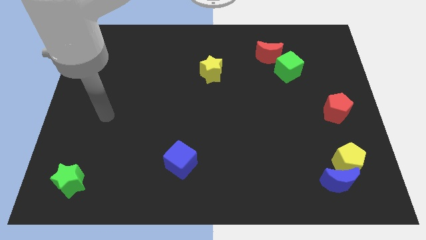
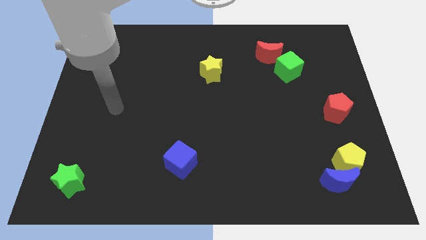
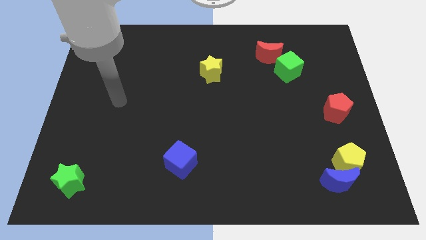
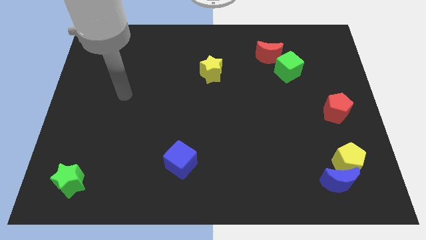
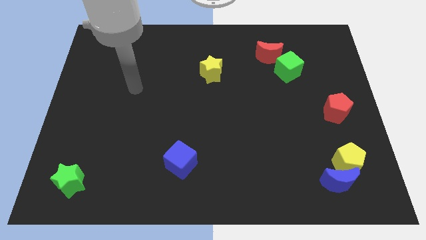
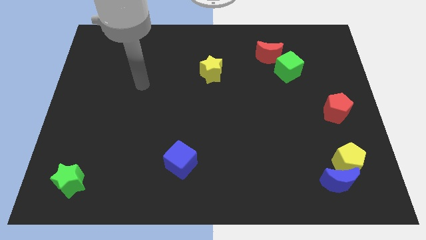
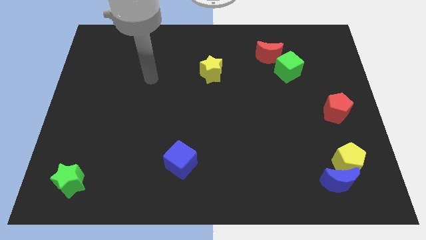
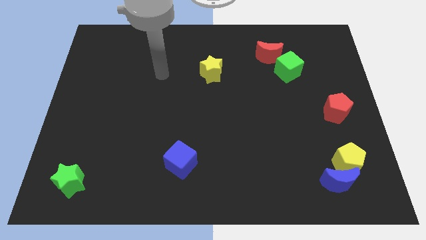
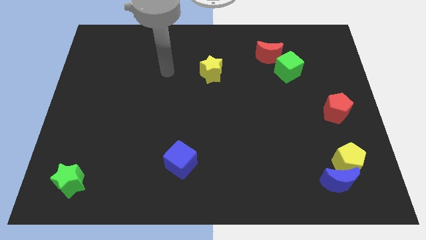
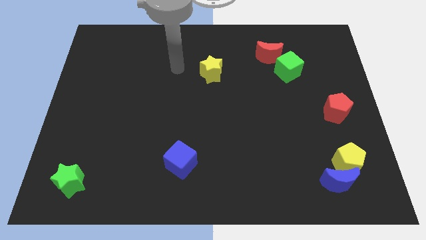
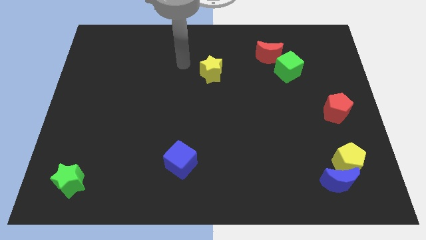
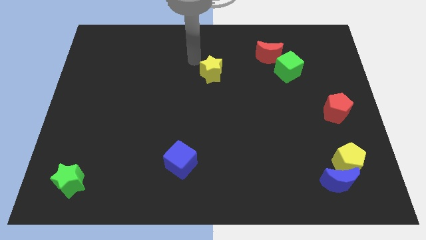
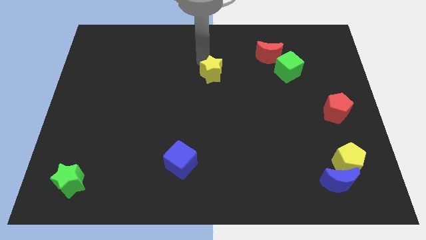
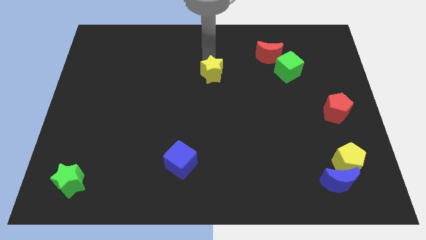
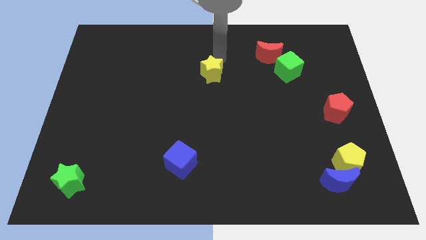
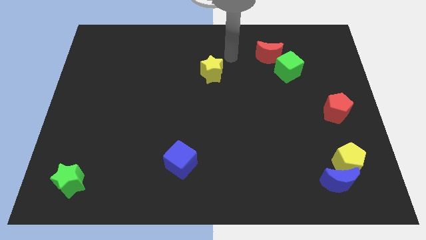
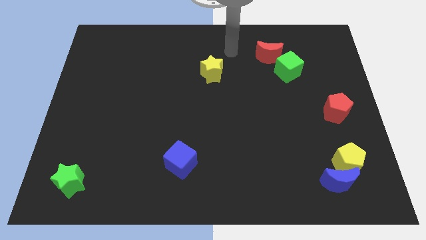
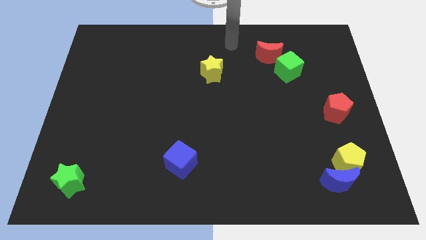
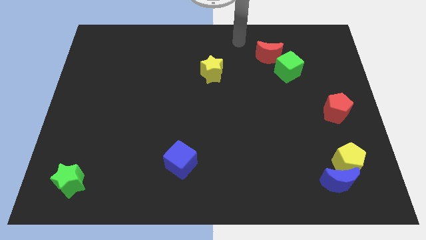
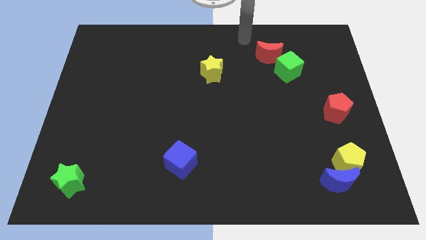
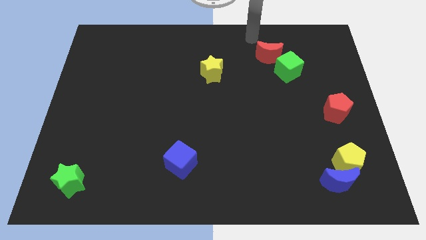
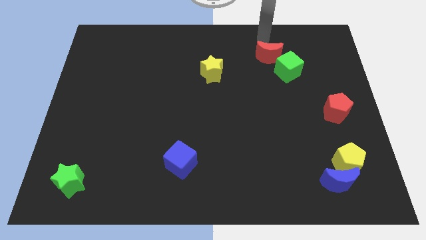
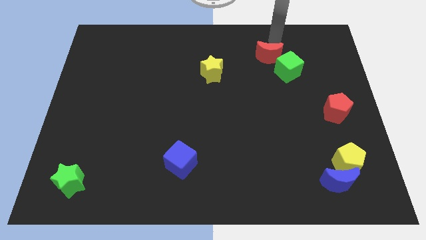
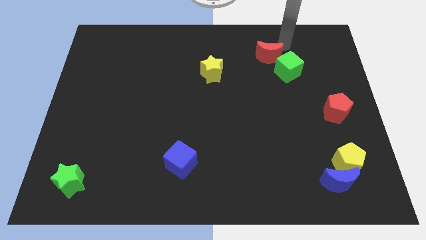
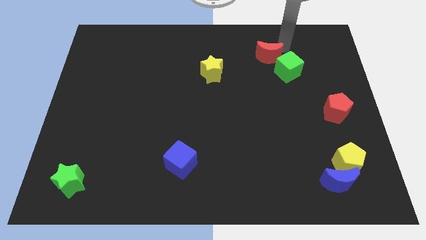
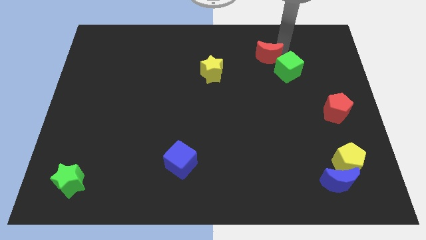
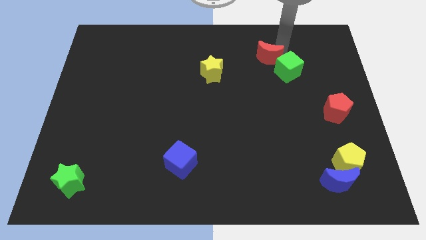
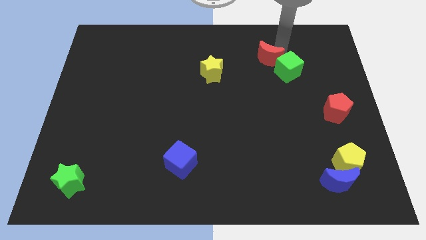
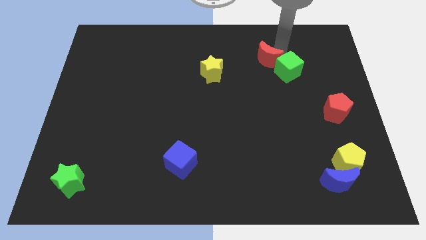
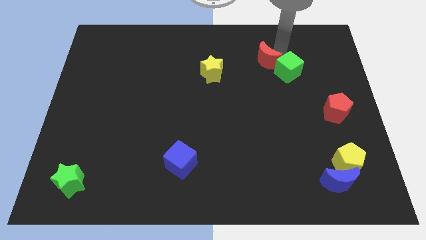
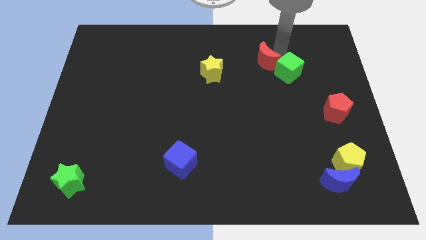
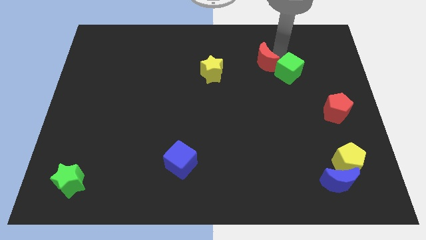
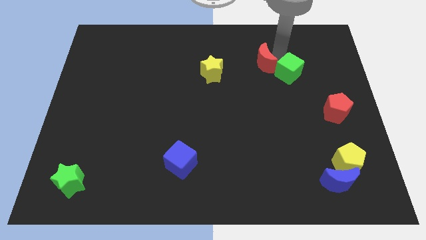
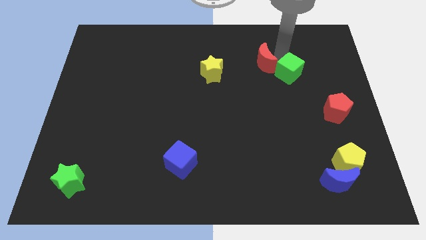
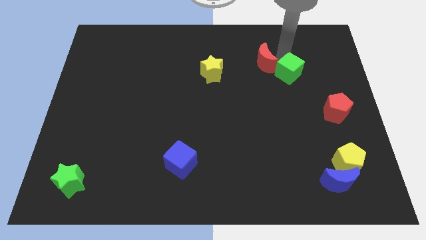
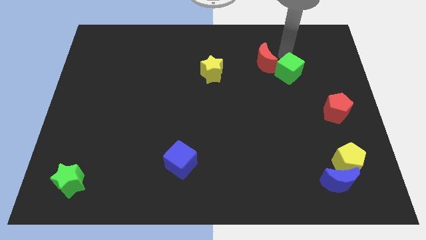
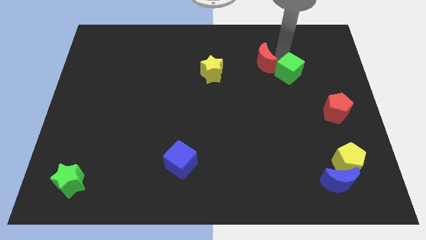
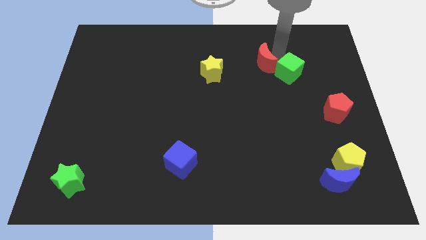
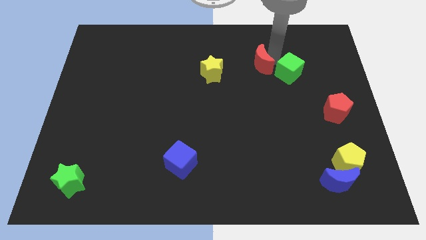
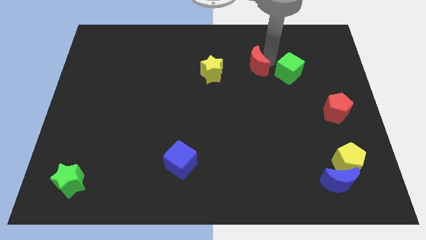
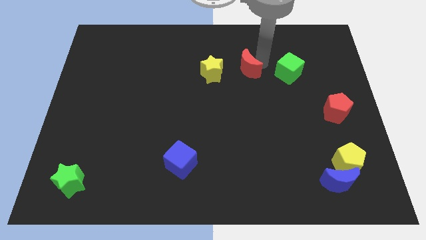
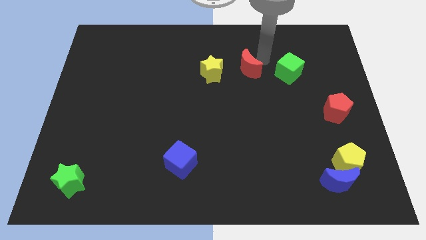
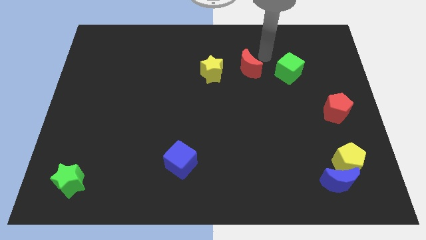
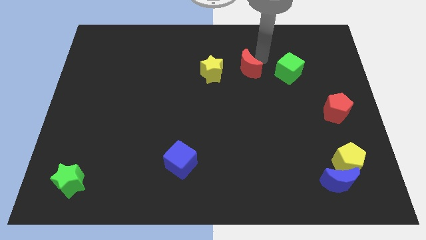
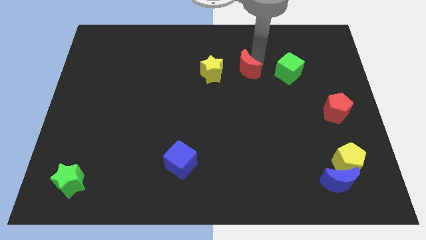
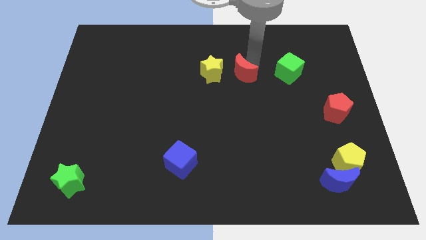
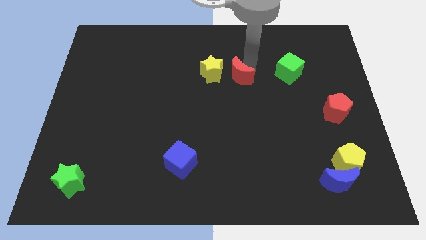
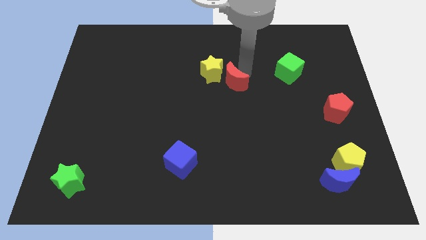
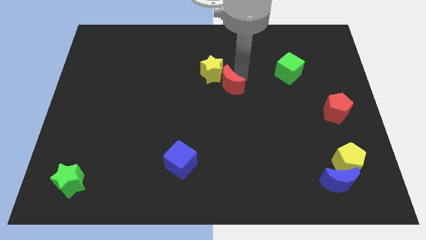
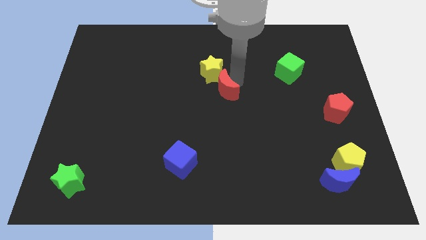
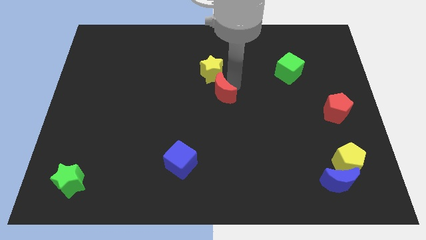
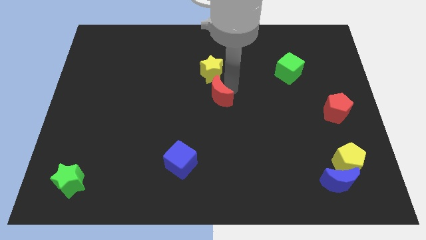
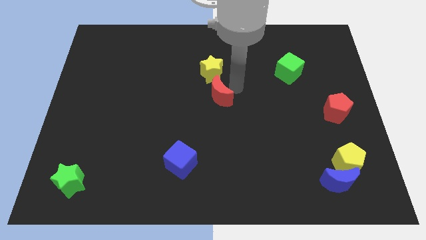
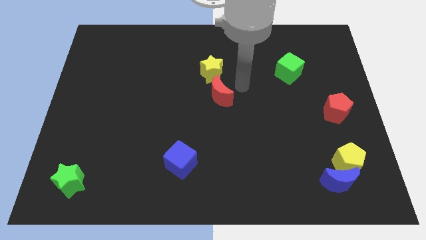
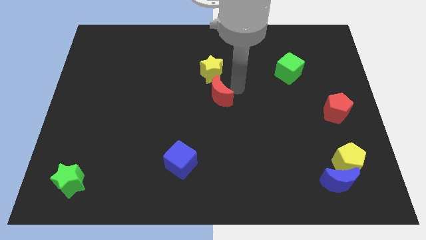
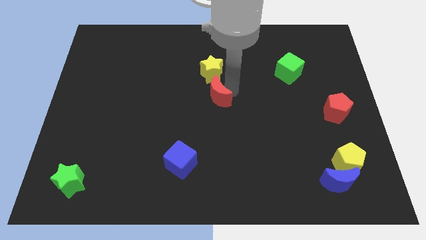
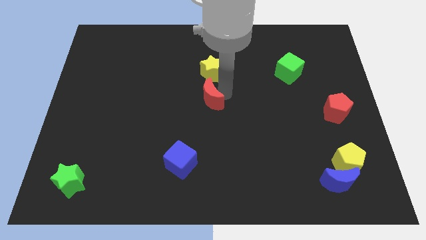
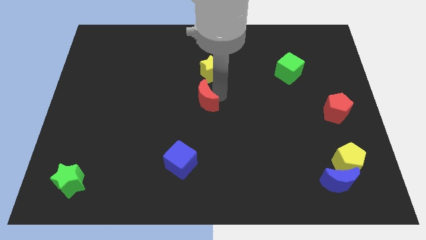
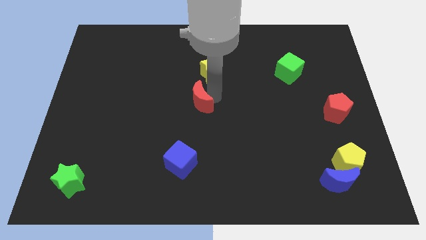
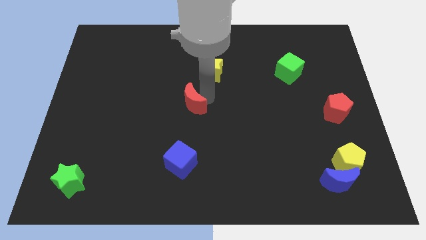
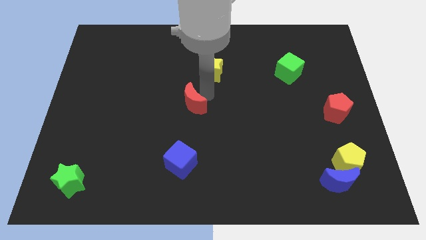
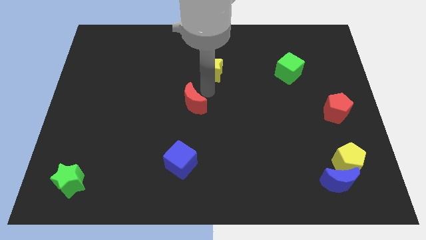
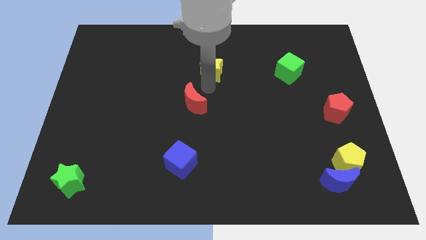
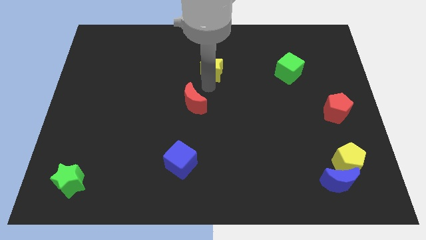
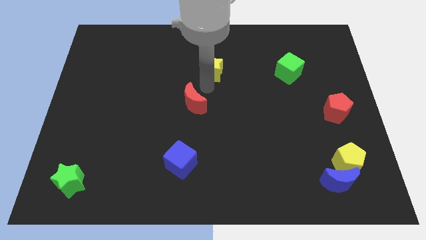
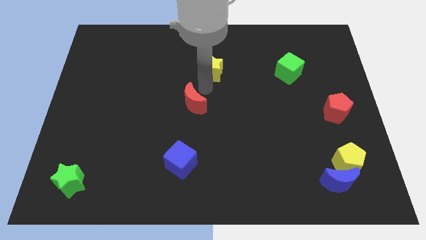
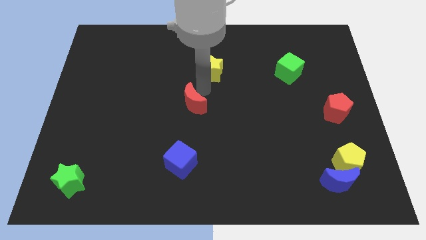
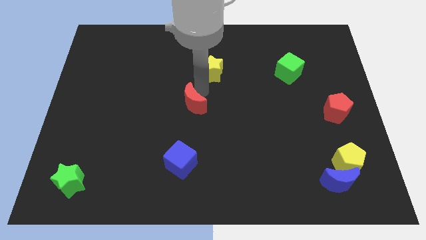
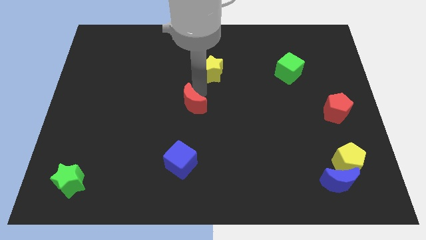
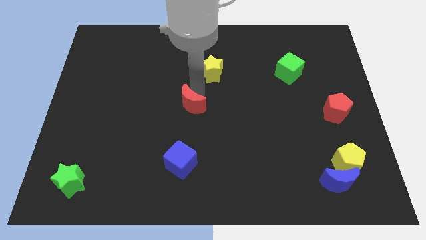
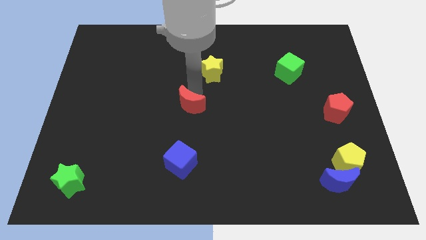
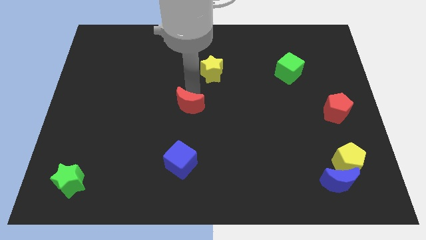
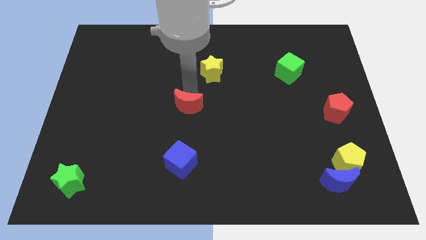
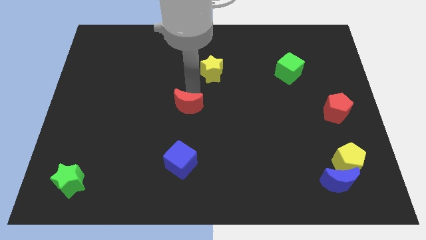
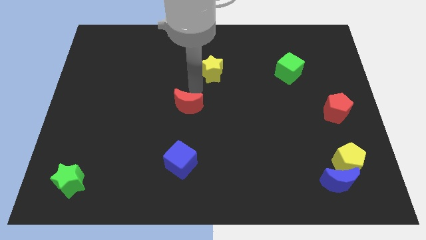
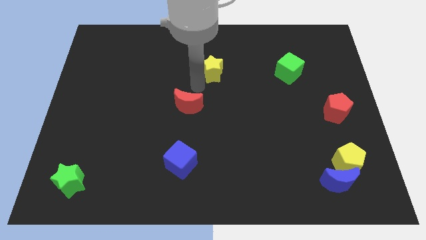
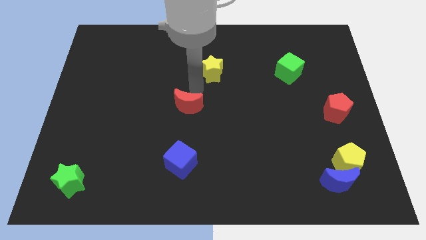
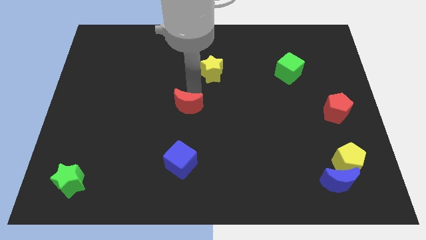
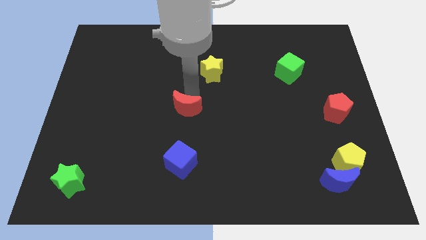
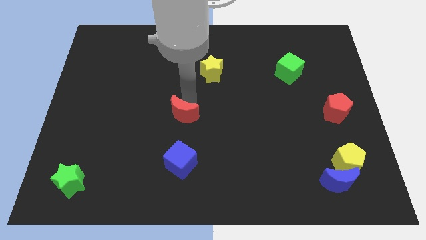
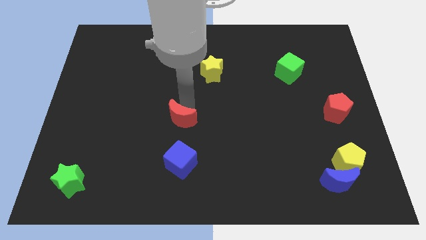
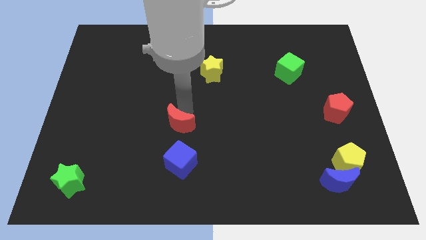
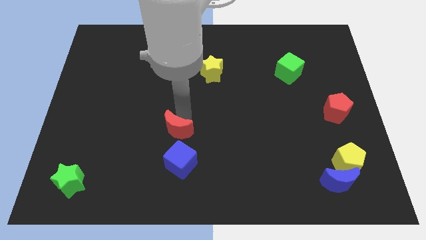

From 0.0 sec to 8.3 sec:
slide the red moon to the top left of the blue cube
